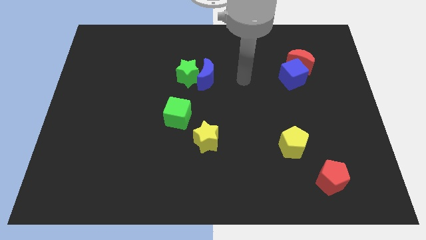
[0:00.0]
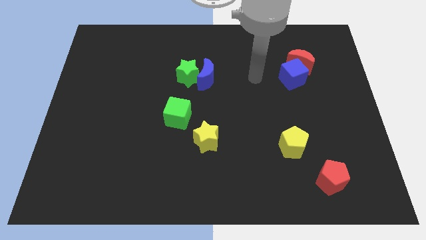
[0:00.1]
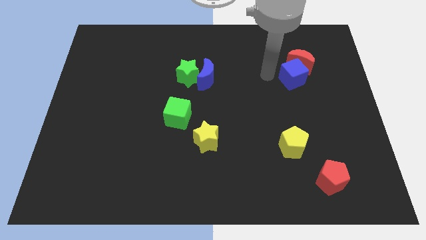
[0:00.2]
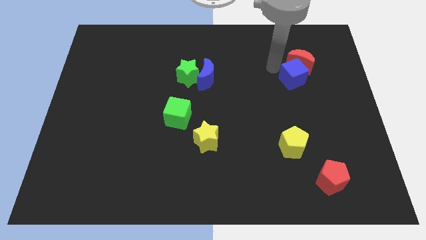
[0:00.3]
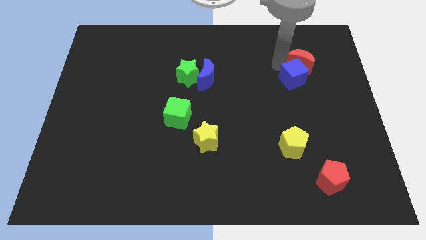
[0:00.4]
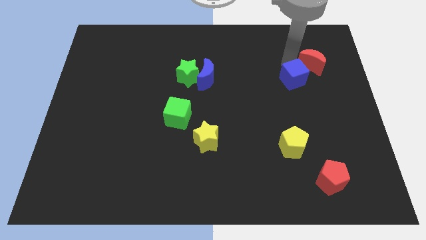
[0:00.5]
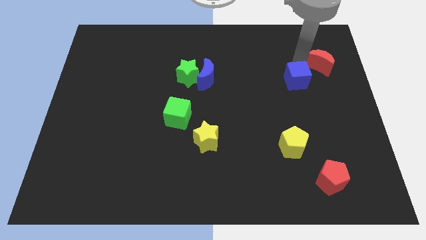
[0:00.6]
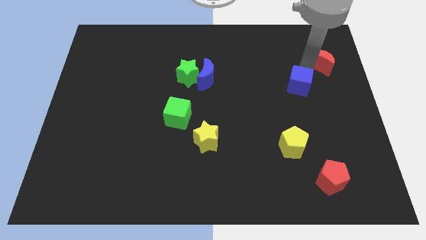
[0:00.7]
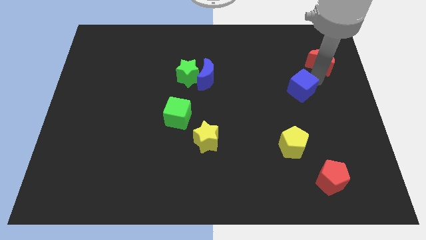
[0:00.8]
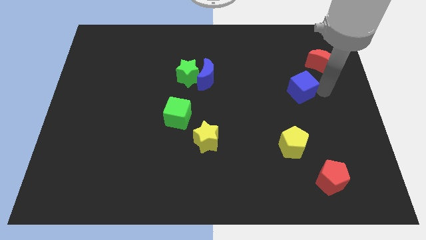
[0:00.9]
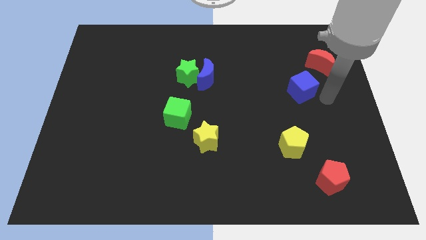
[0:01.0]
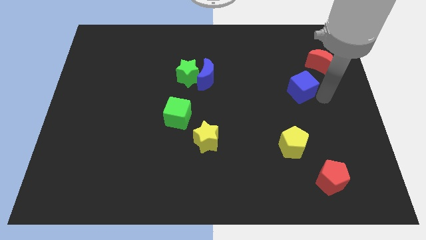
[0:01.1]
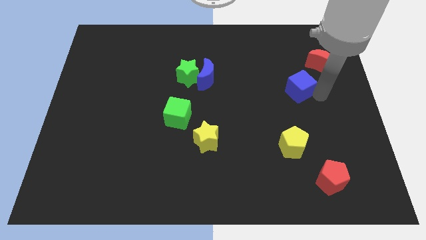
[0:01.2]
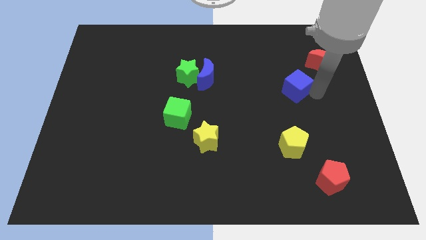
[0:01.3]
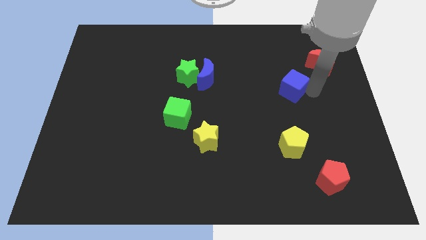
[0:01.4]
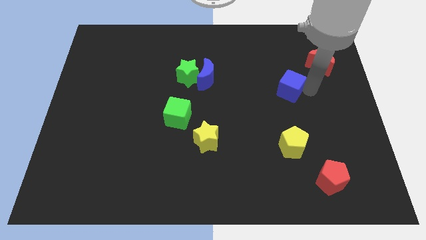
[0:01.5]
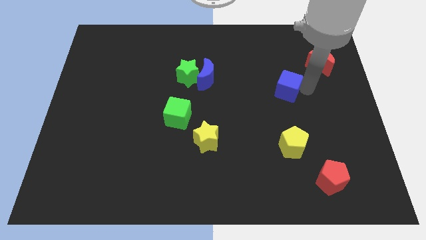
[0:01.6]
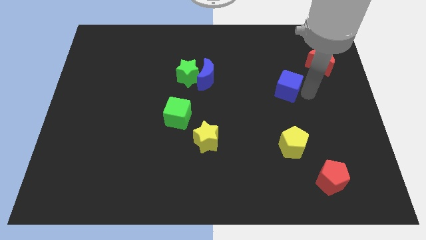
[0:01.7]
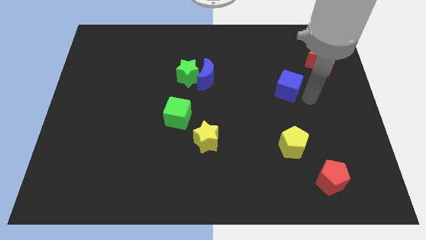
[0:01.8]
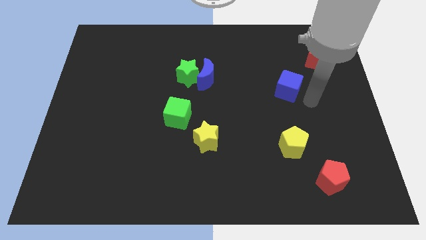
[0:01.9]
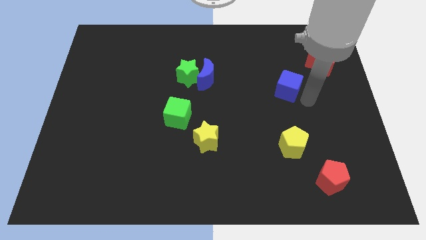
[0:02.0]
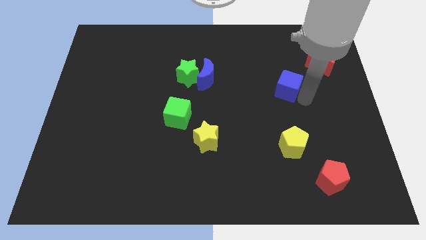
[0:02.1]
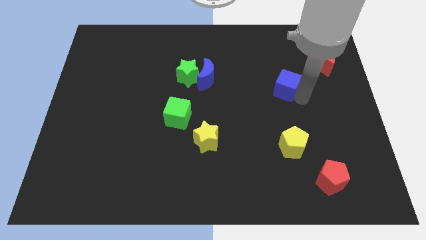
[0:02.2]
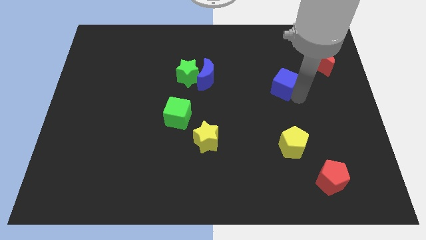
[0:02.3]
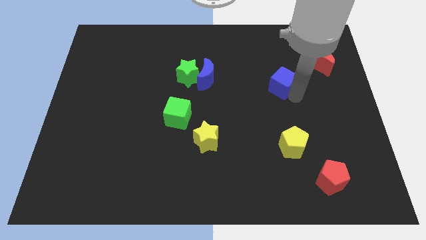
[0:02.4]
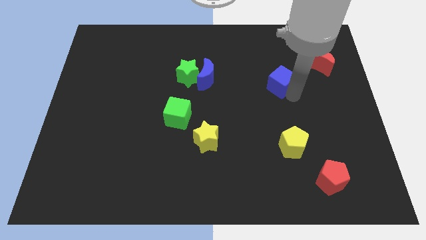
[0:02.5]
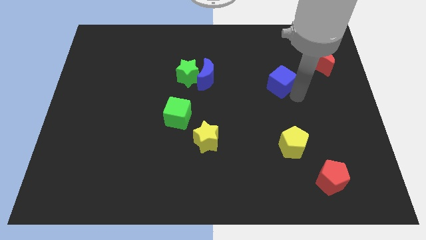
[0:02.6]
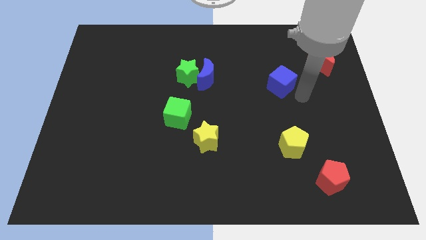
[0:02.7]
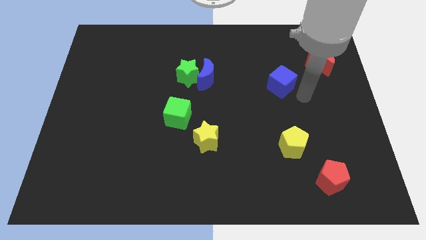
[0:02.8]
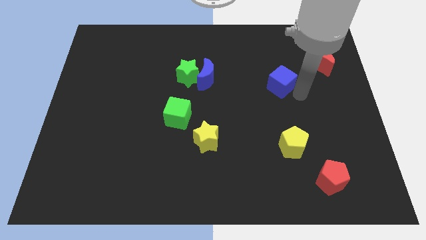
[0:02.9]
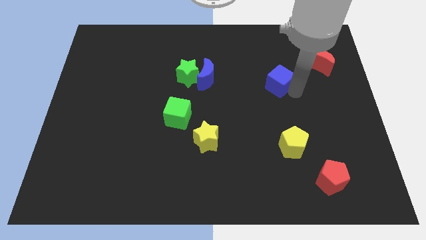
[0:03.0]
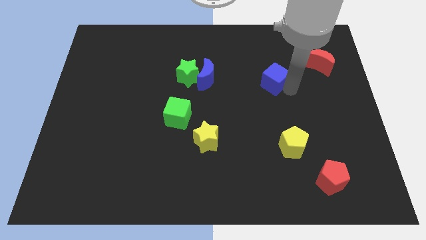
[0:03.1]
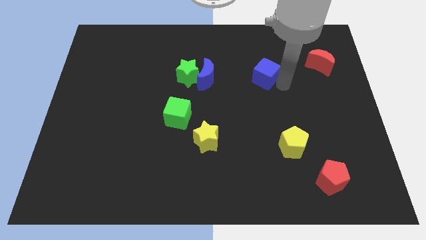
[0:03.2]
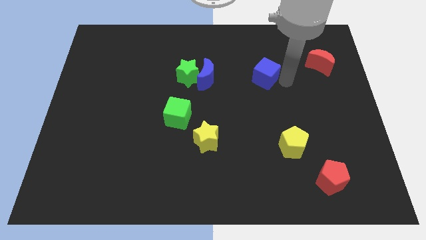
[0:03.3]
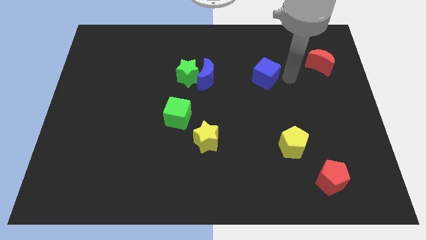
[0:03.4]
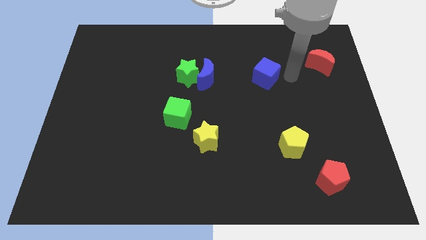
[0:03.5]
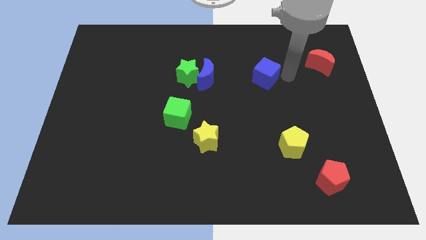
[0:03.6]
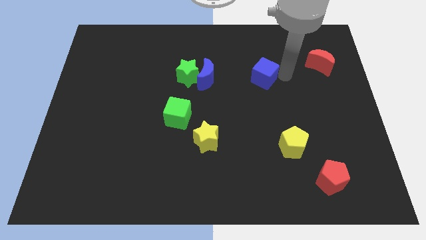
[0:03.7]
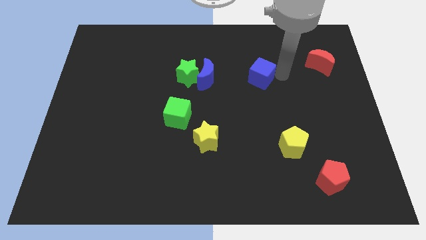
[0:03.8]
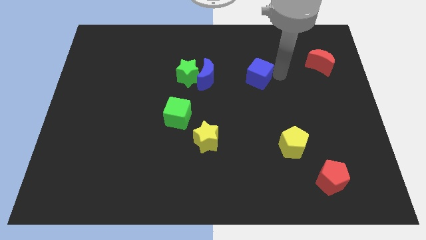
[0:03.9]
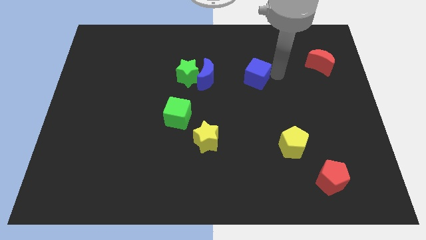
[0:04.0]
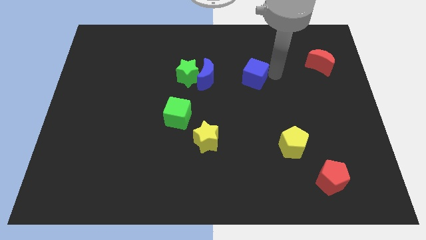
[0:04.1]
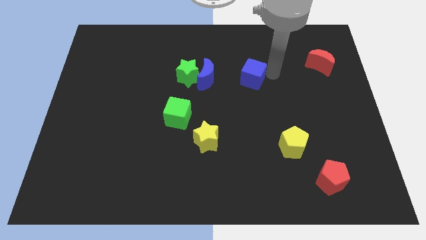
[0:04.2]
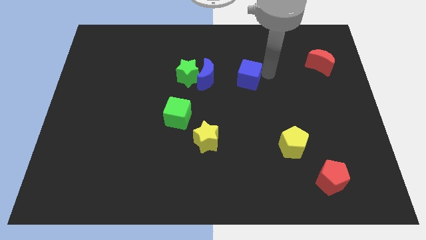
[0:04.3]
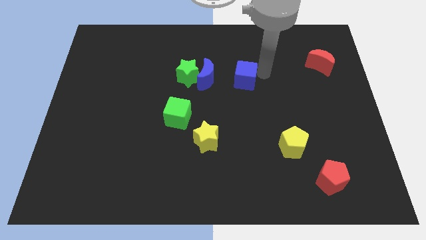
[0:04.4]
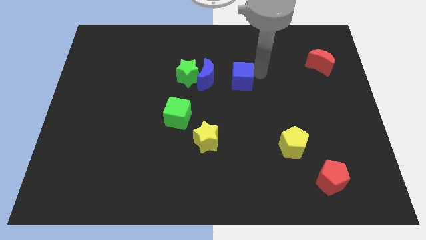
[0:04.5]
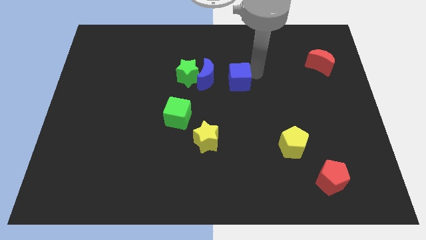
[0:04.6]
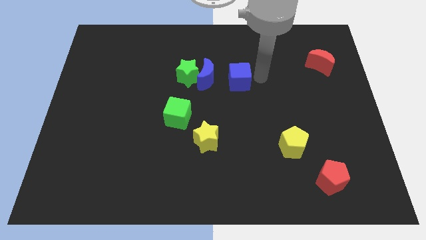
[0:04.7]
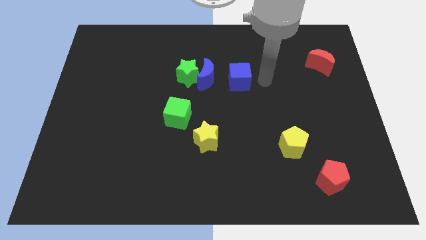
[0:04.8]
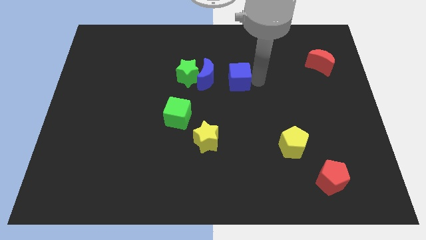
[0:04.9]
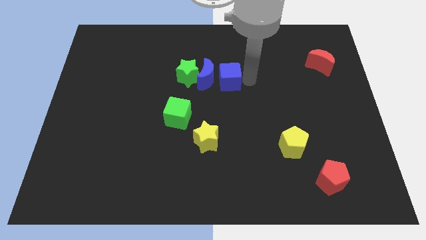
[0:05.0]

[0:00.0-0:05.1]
move the blue cube close to the blue moon

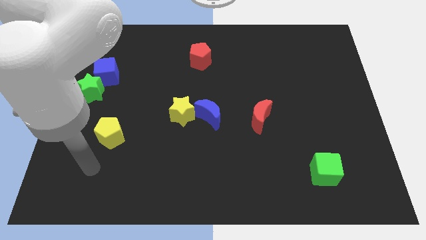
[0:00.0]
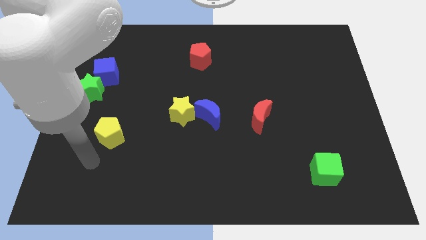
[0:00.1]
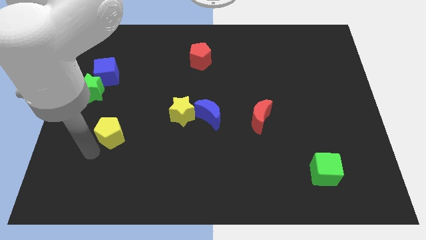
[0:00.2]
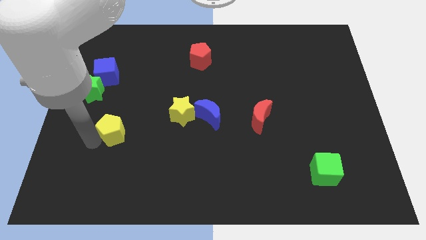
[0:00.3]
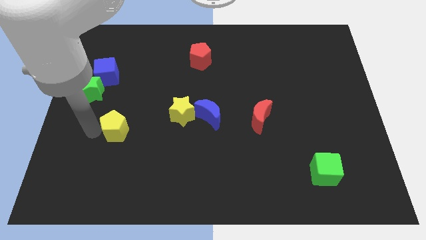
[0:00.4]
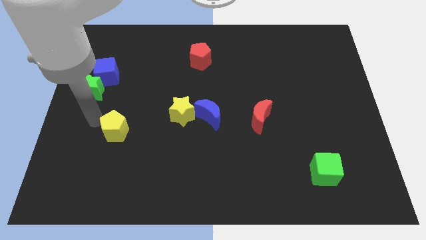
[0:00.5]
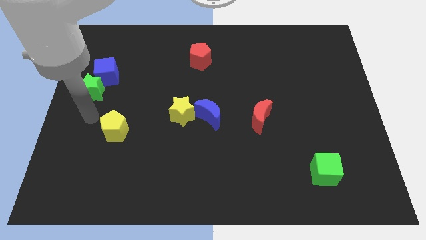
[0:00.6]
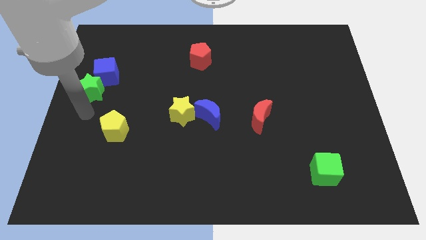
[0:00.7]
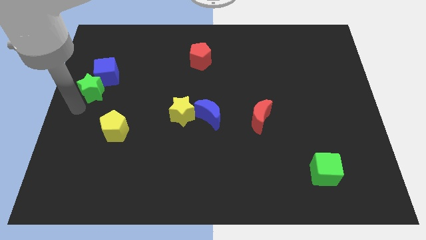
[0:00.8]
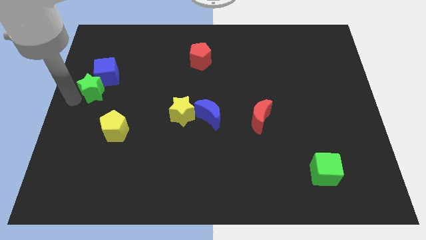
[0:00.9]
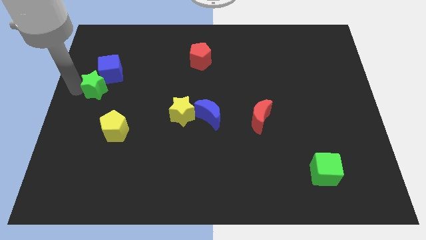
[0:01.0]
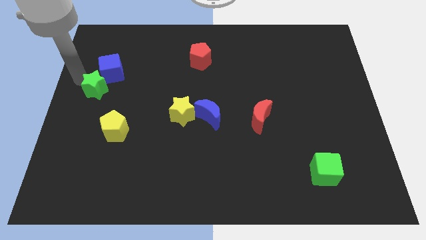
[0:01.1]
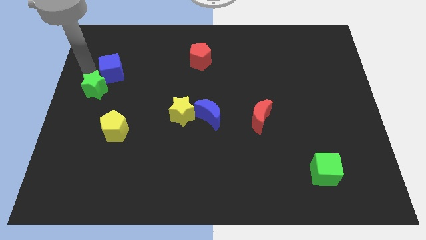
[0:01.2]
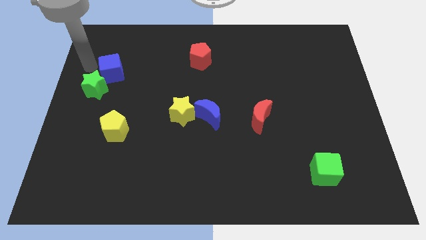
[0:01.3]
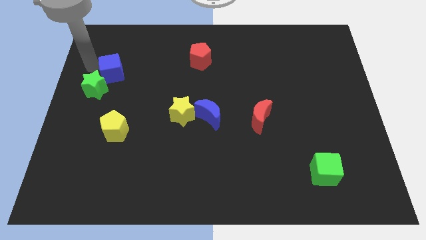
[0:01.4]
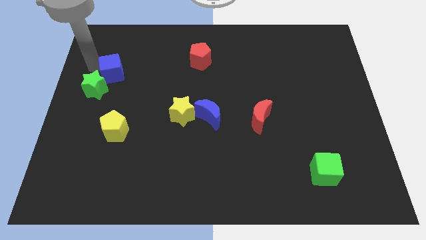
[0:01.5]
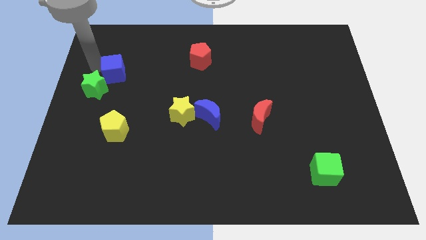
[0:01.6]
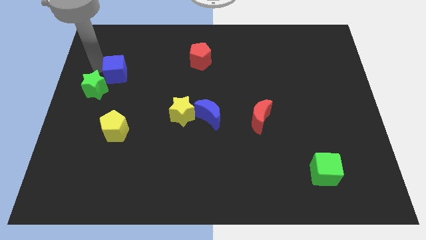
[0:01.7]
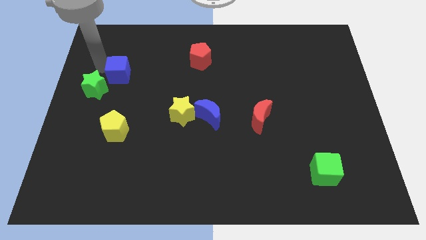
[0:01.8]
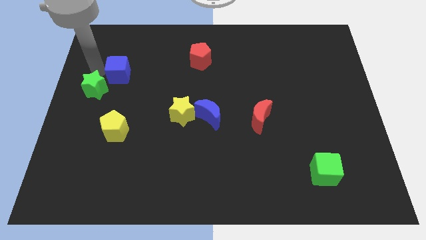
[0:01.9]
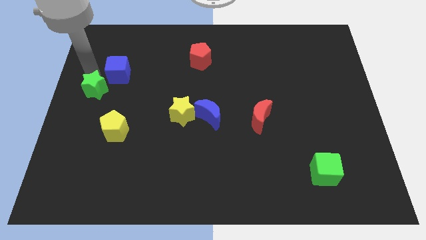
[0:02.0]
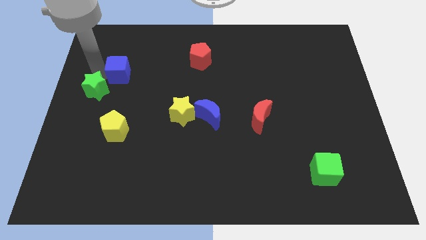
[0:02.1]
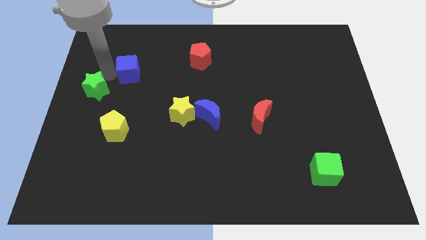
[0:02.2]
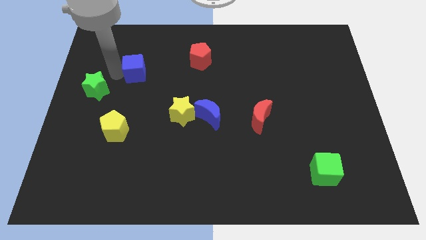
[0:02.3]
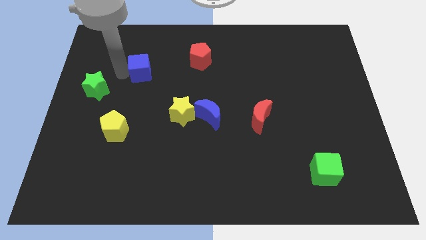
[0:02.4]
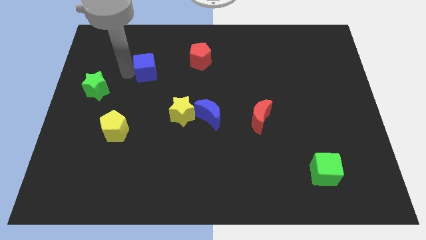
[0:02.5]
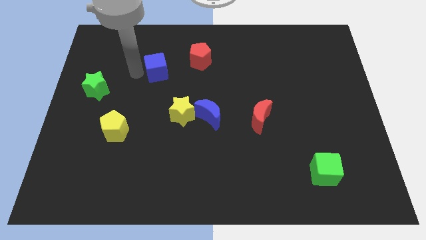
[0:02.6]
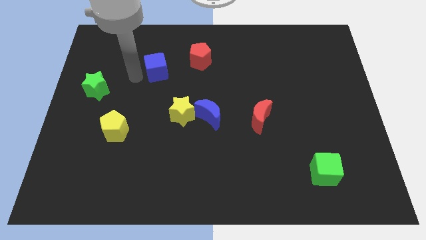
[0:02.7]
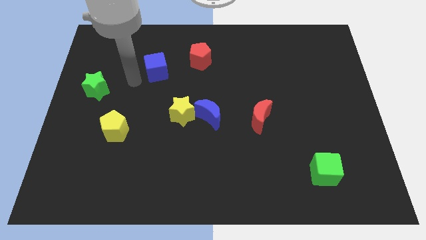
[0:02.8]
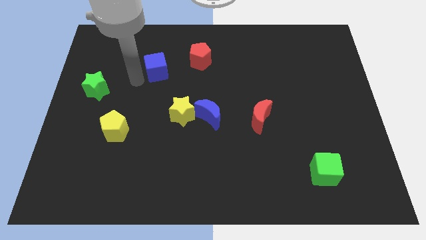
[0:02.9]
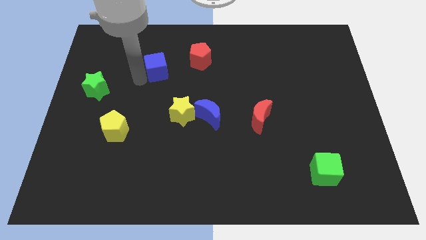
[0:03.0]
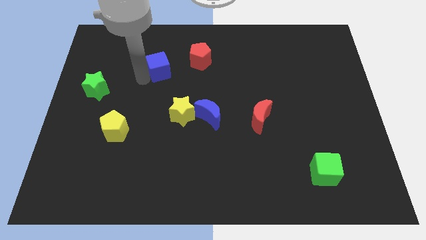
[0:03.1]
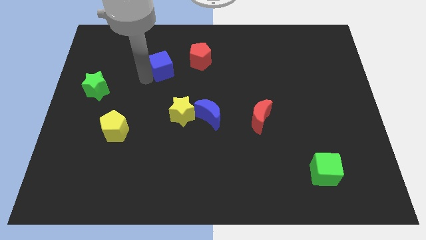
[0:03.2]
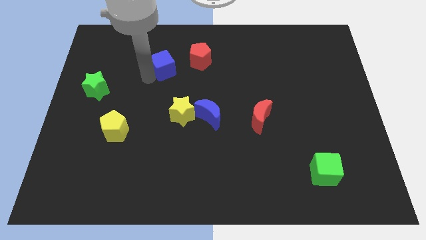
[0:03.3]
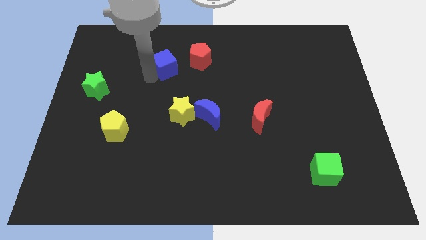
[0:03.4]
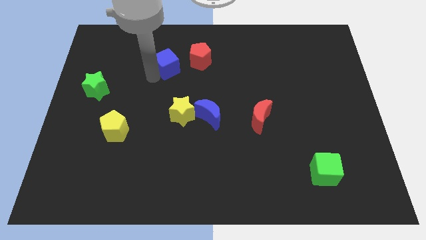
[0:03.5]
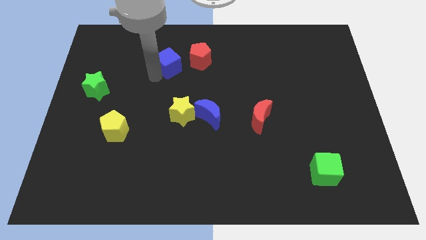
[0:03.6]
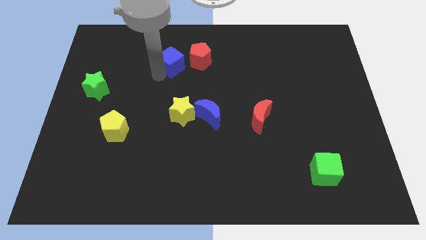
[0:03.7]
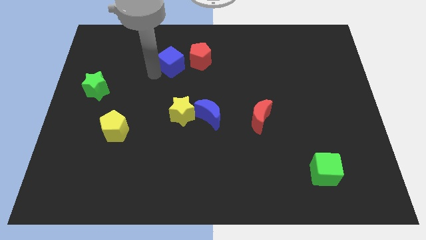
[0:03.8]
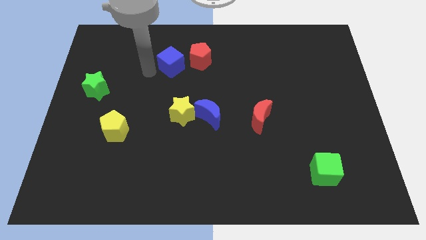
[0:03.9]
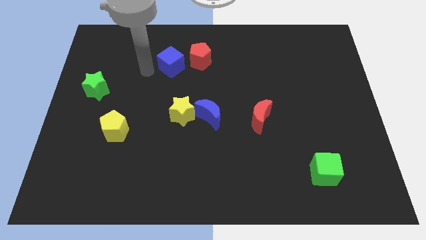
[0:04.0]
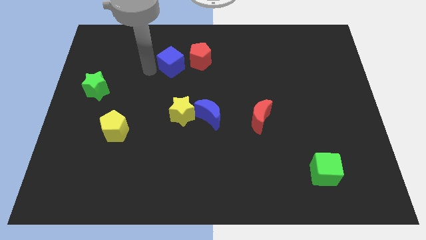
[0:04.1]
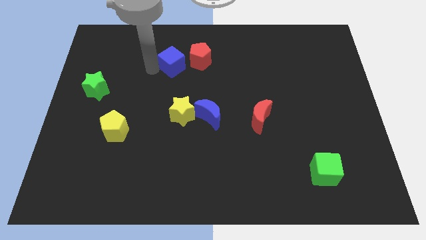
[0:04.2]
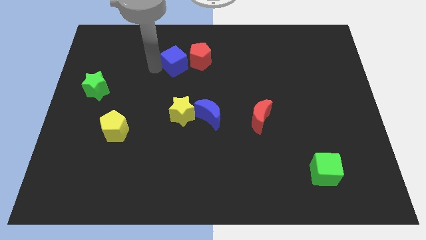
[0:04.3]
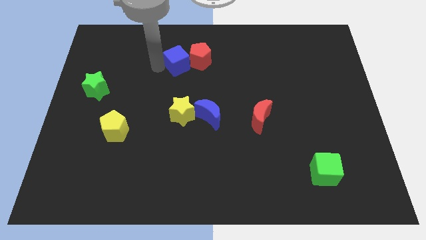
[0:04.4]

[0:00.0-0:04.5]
move the blue cube to the red pentagon
